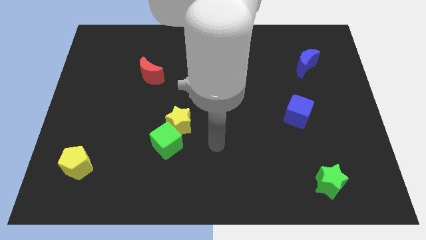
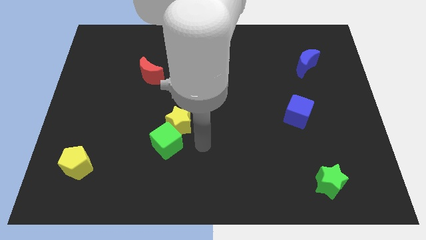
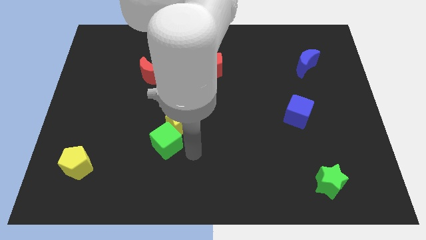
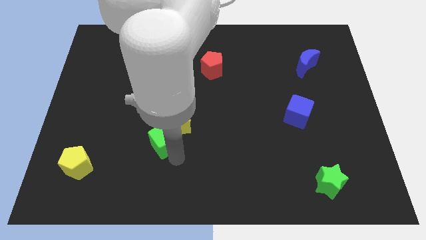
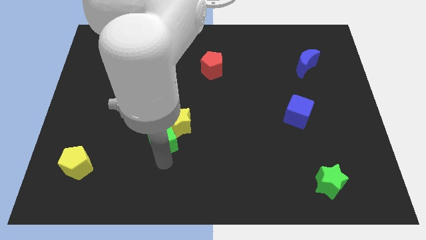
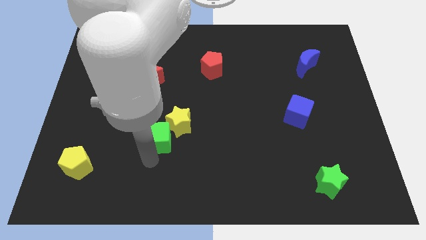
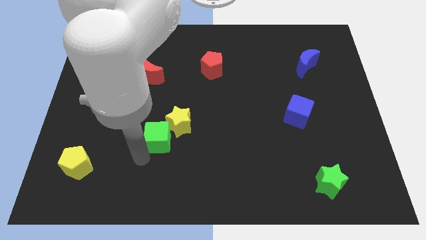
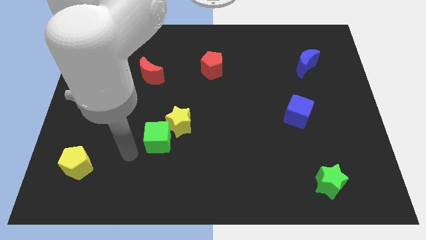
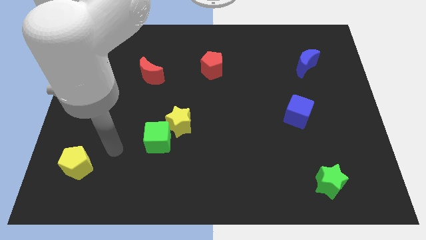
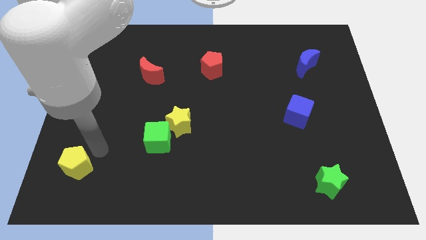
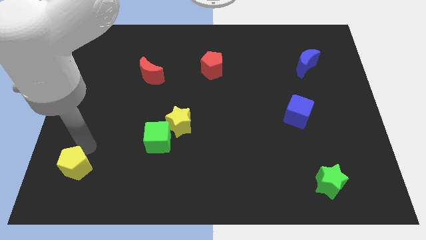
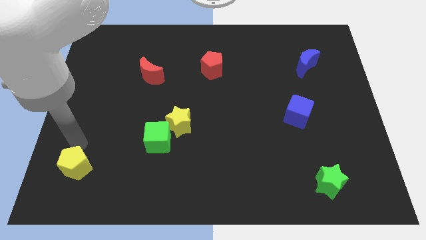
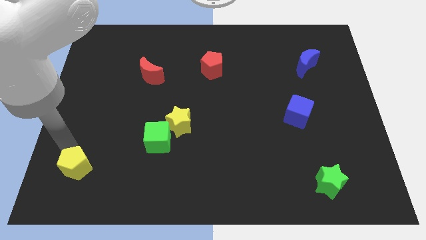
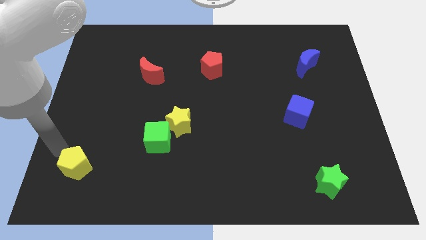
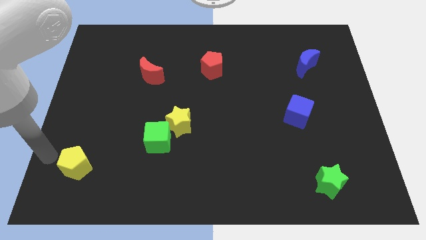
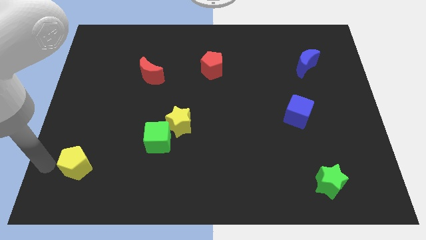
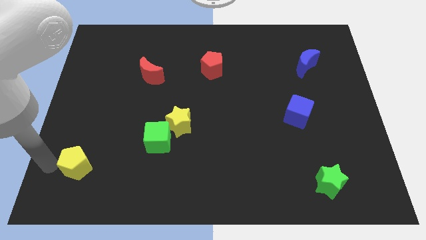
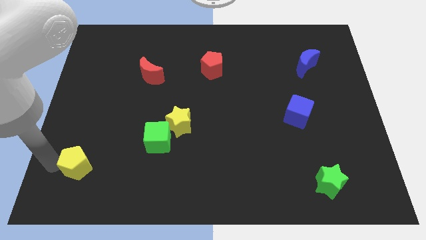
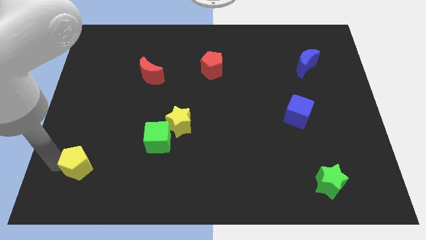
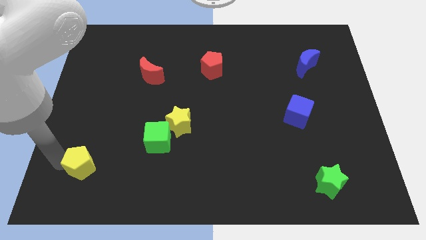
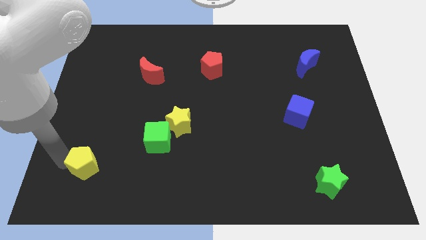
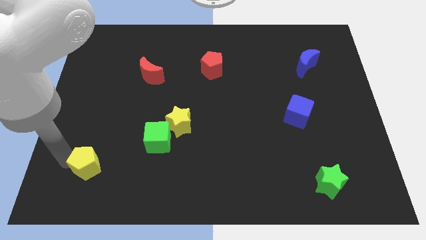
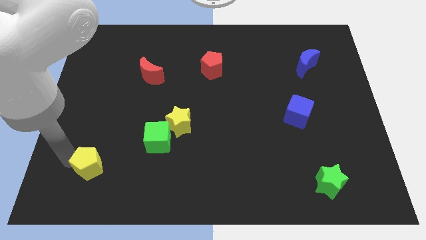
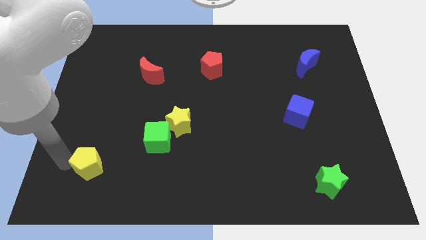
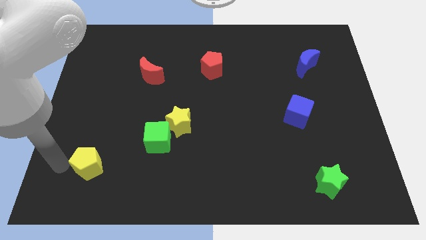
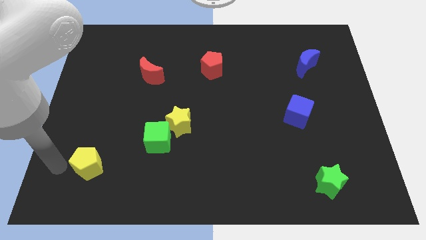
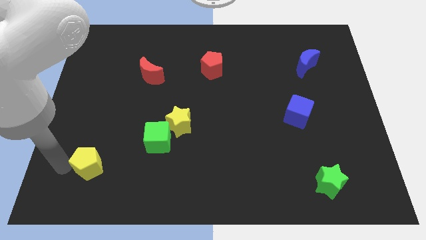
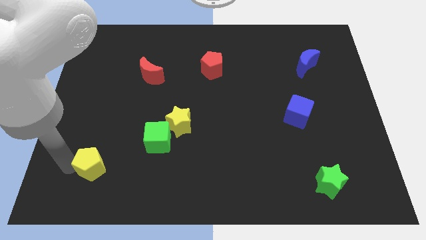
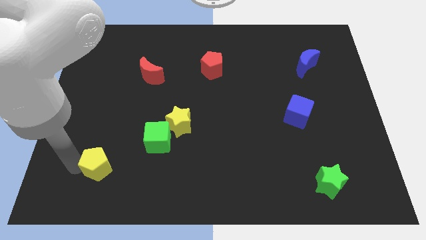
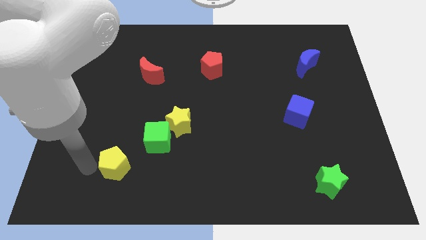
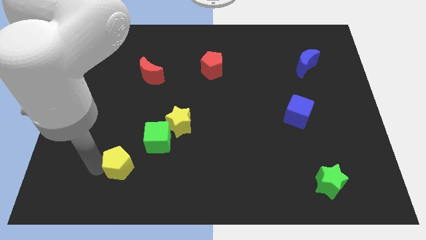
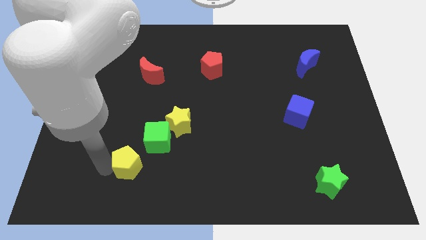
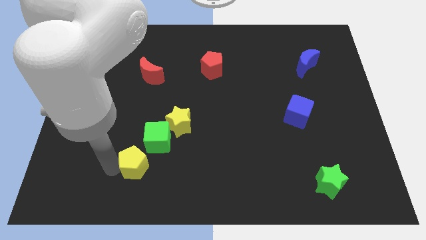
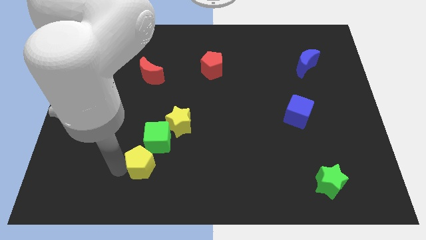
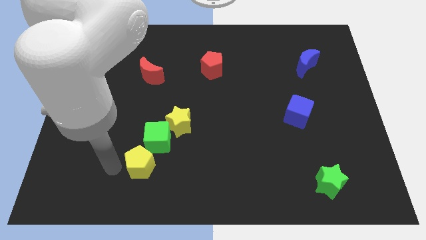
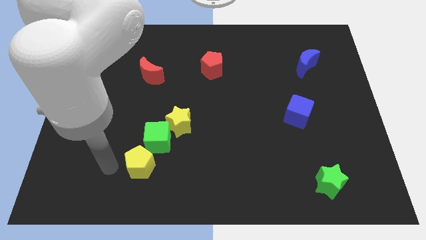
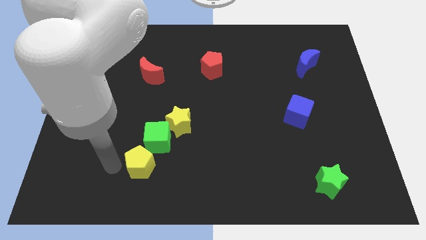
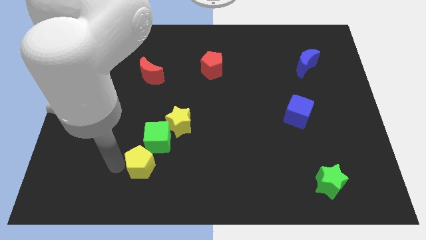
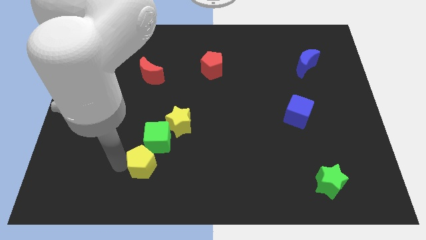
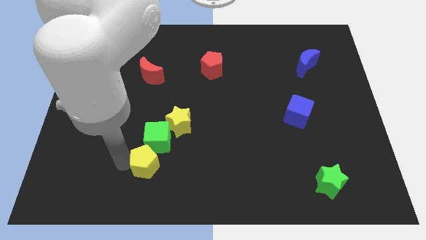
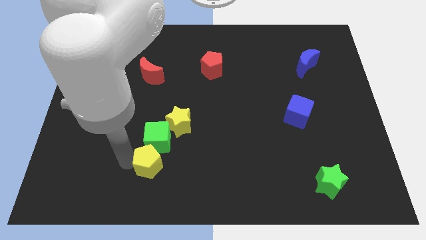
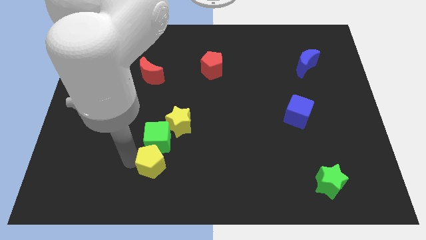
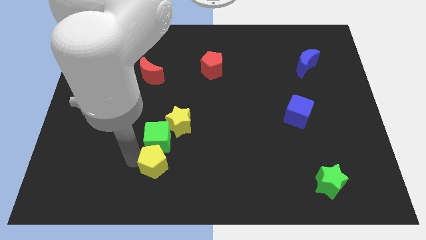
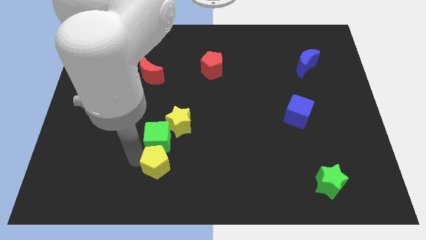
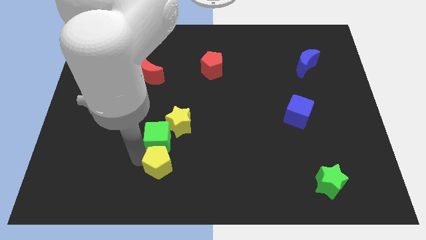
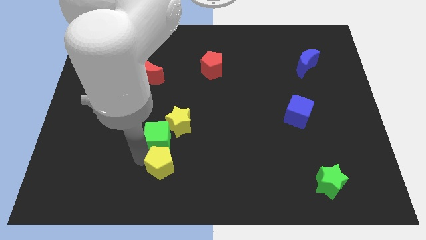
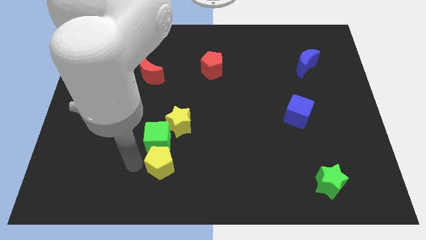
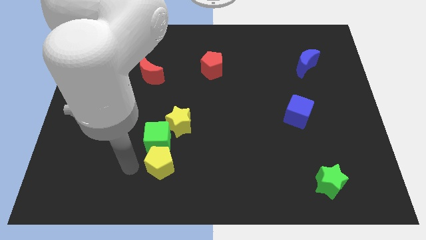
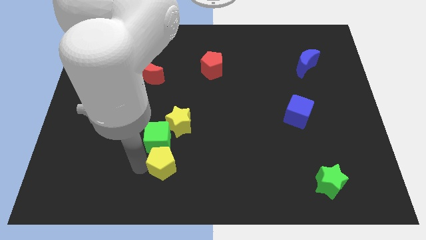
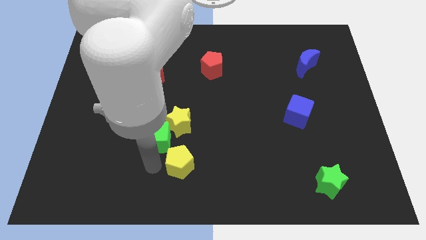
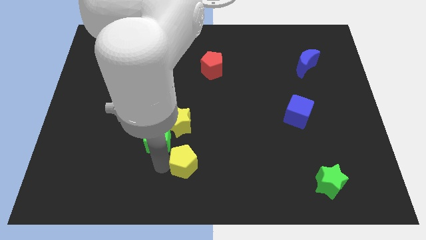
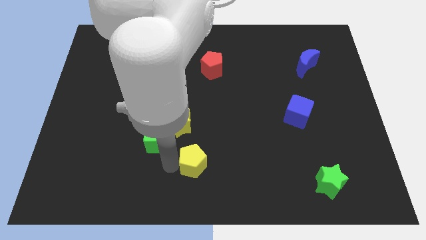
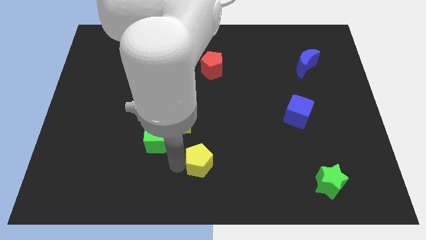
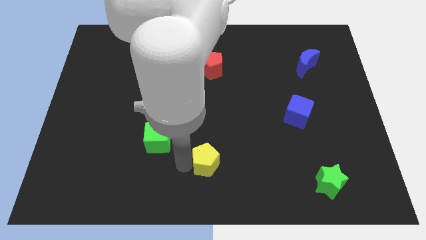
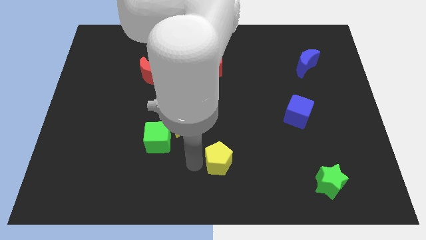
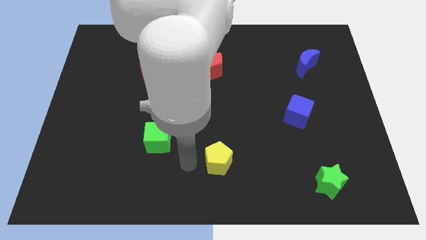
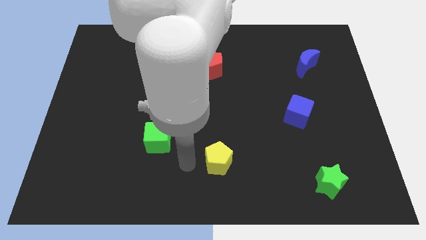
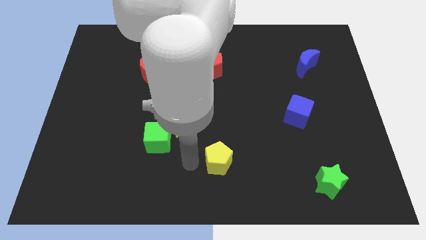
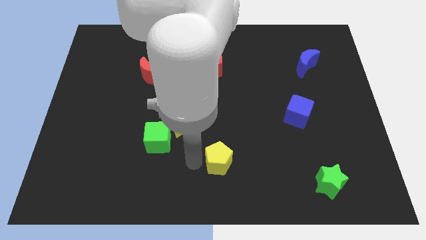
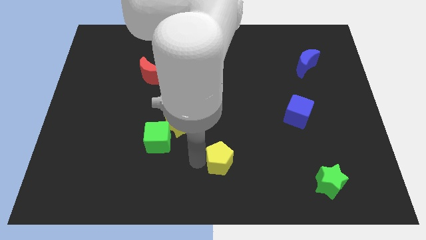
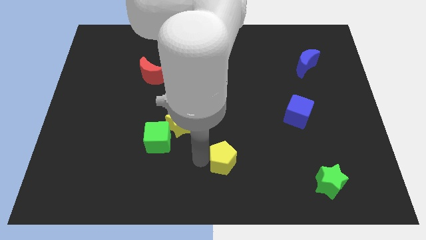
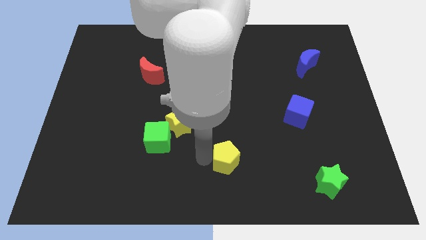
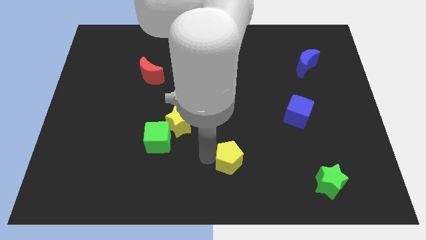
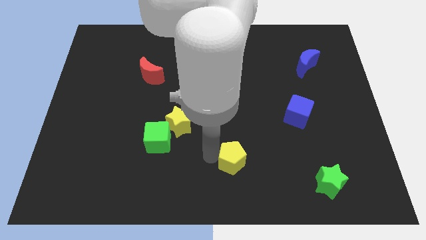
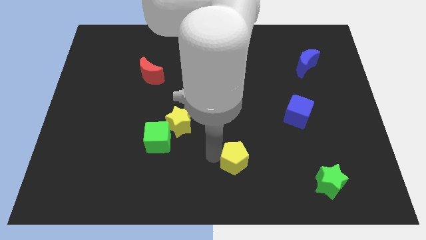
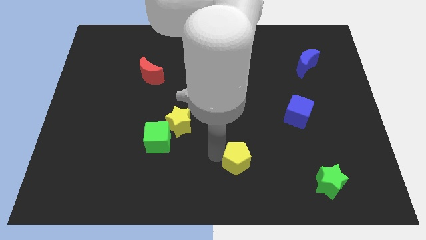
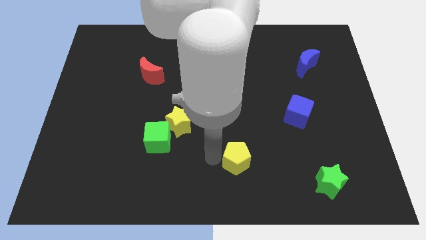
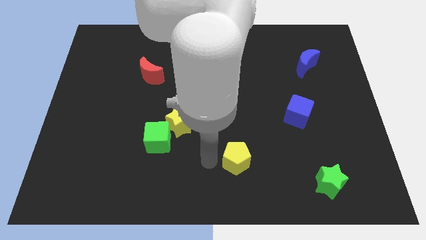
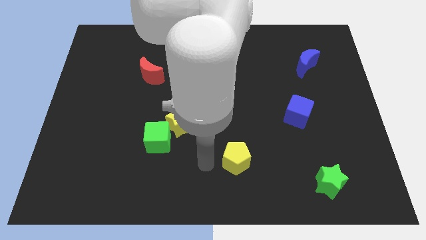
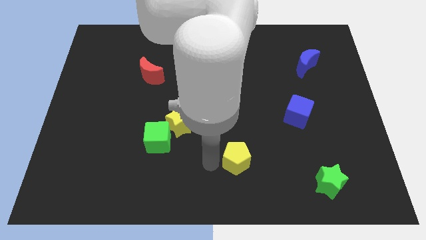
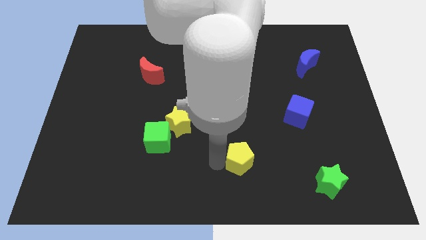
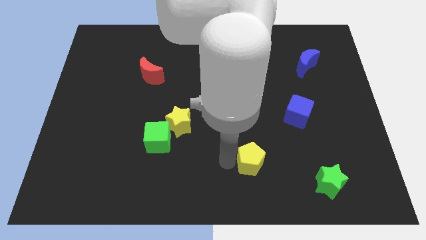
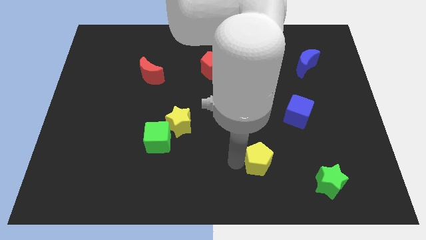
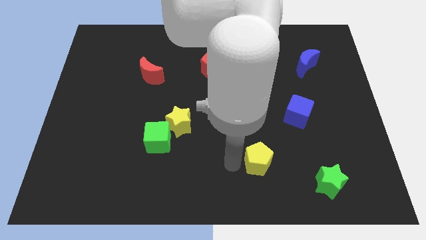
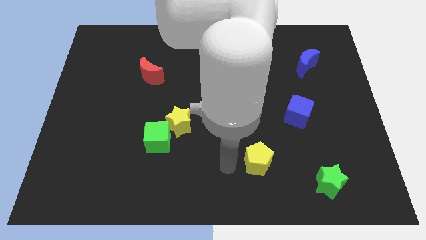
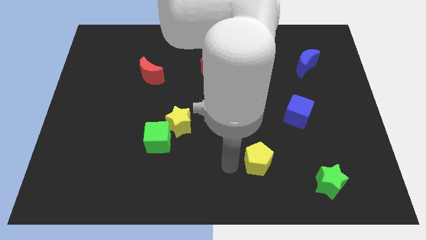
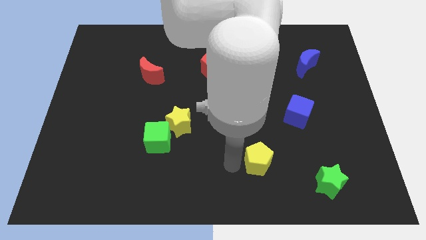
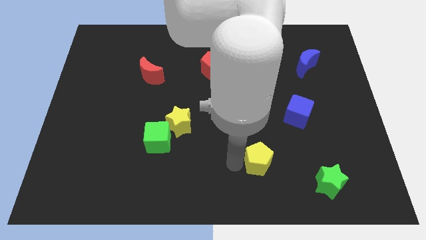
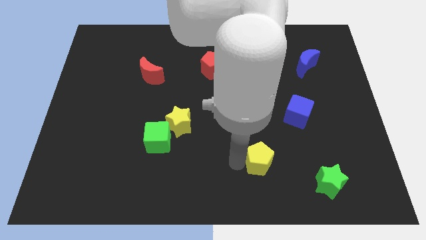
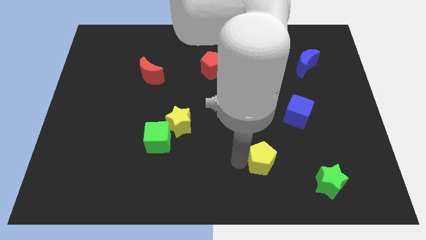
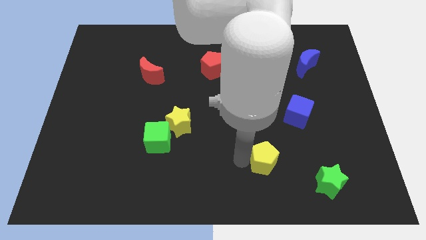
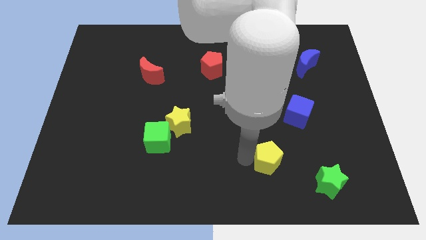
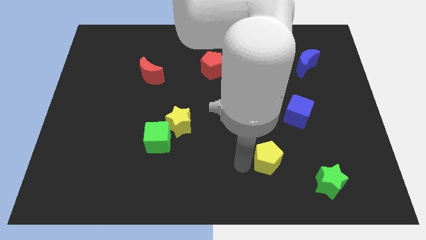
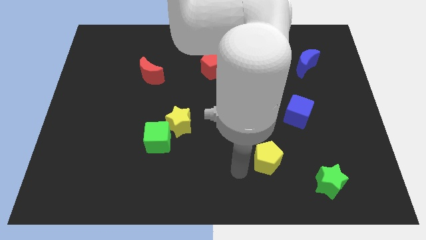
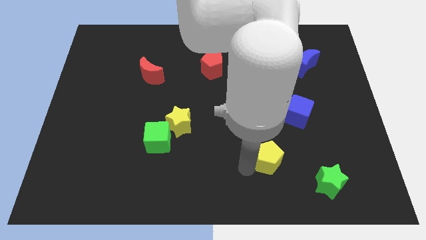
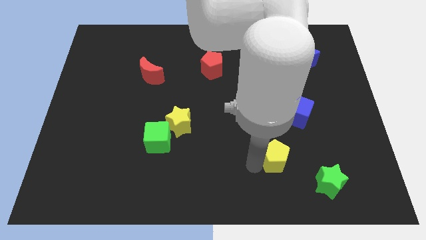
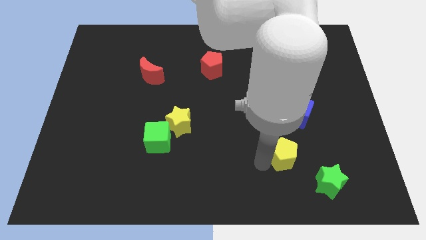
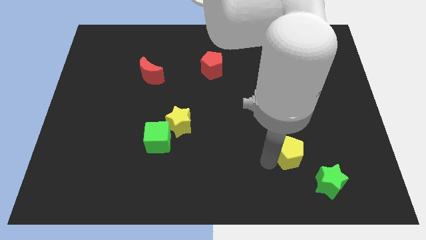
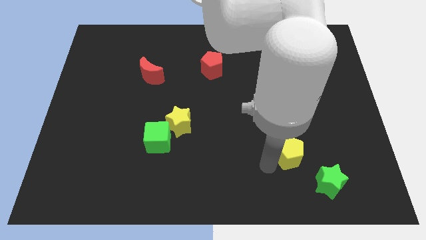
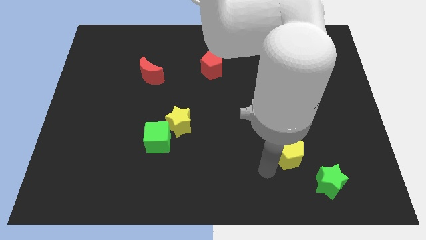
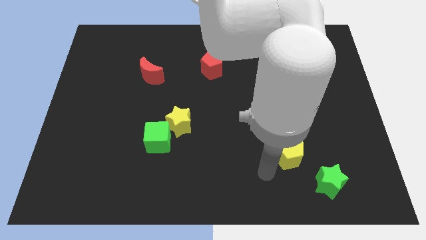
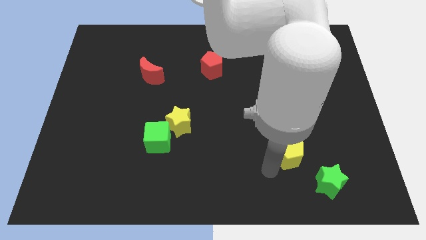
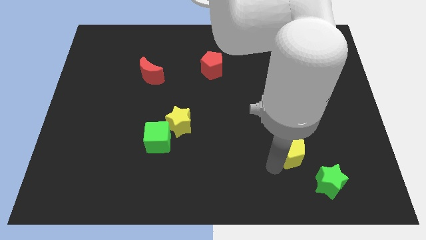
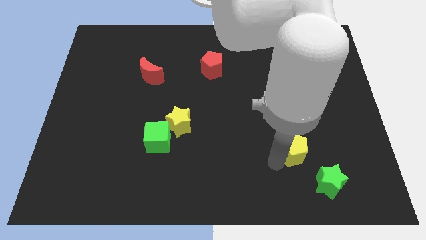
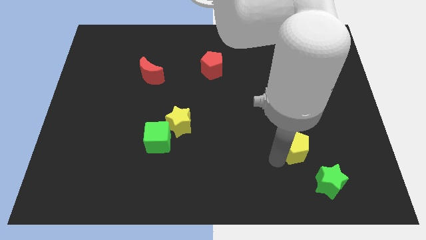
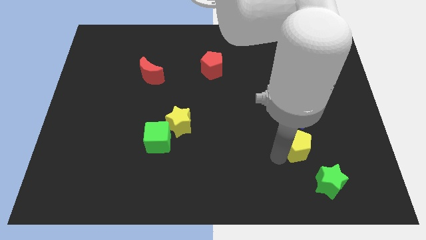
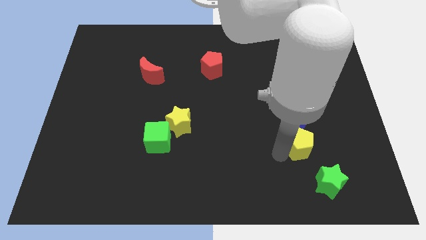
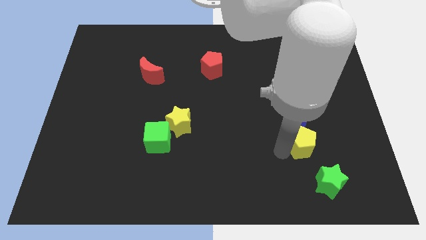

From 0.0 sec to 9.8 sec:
slide the yellow pentagon above the green star
